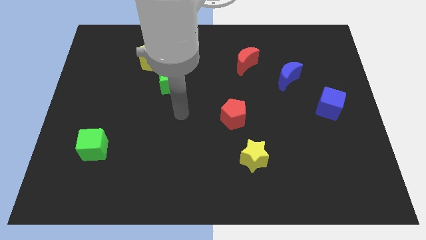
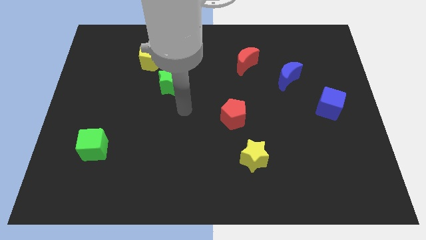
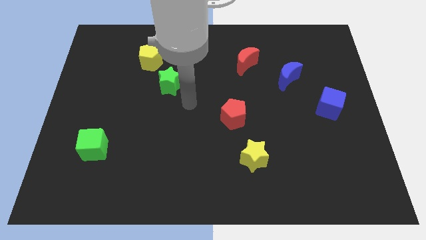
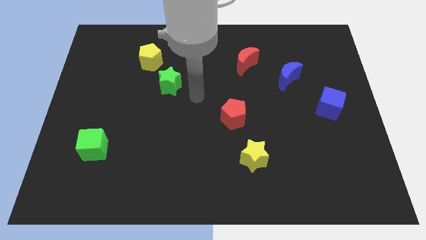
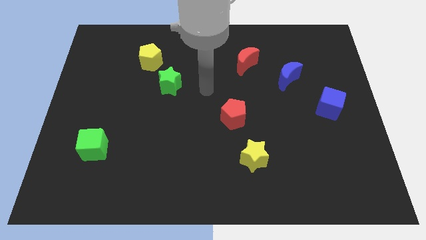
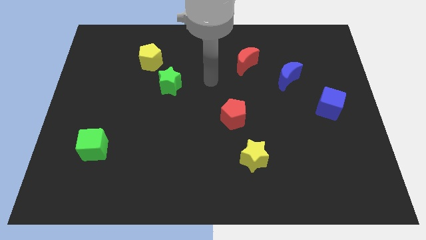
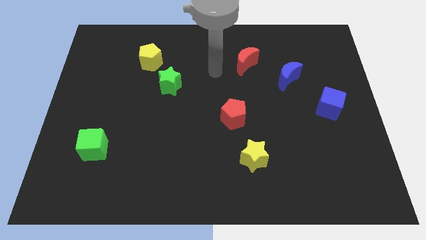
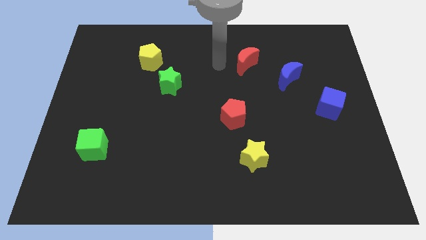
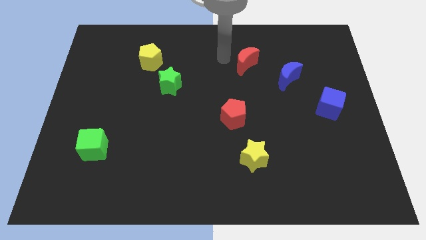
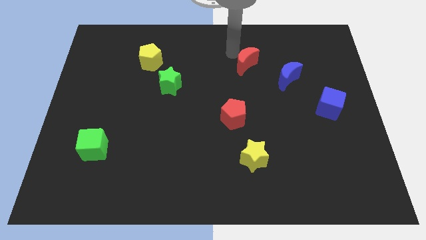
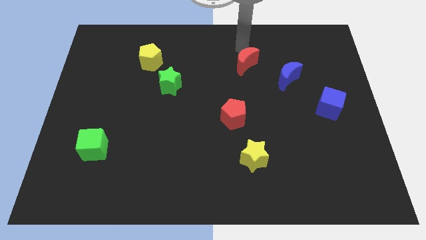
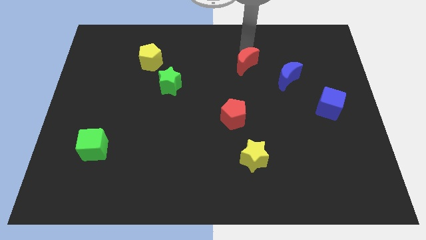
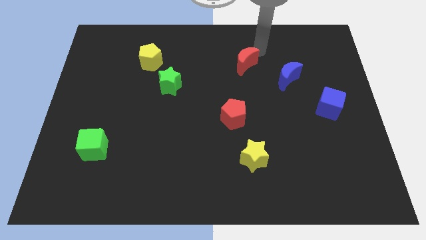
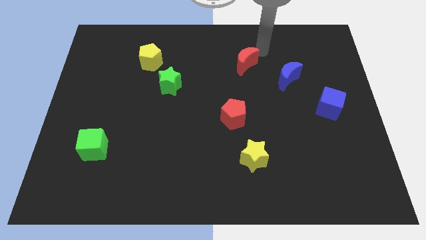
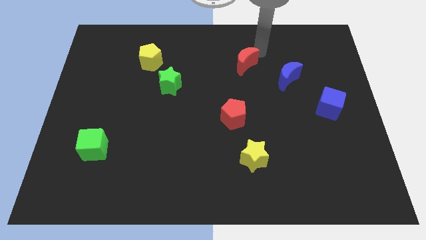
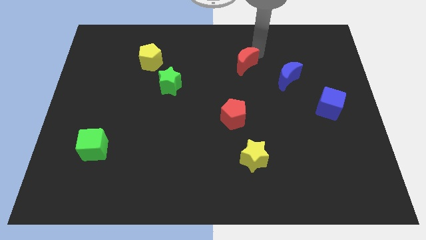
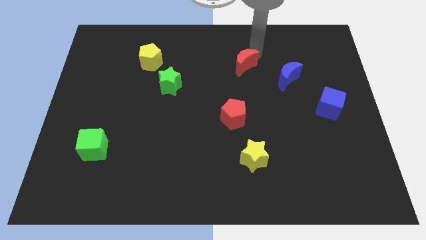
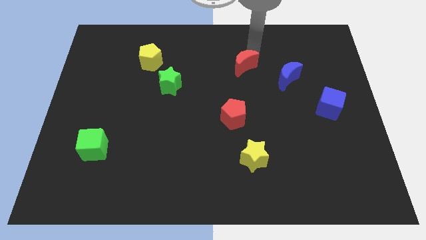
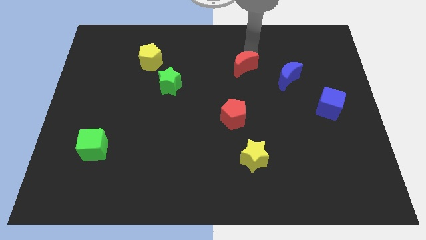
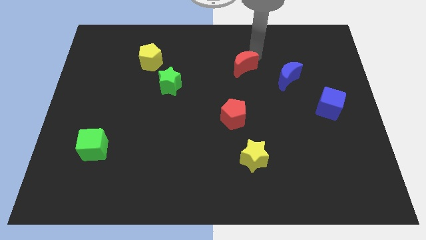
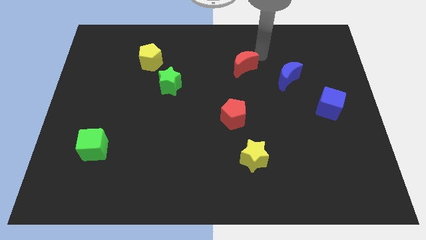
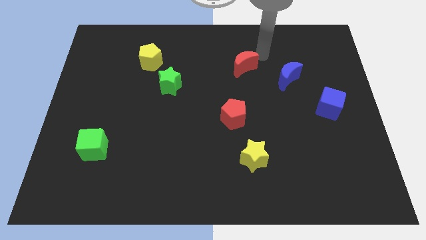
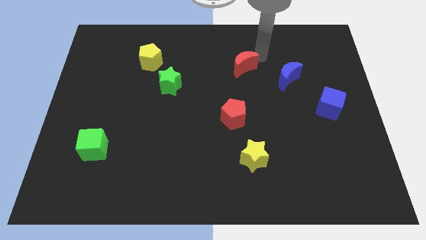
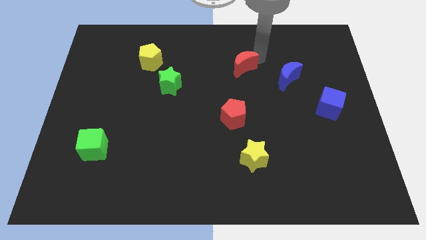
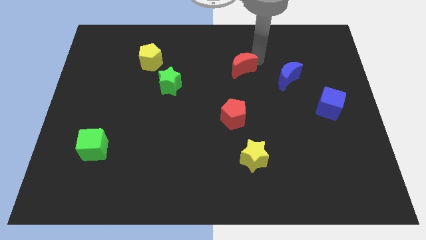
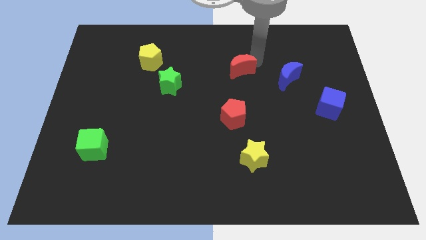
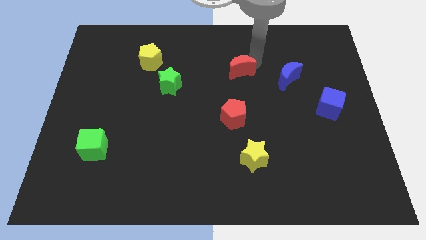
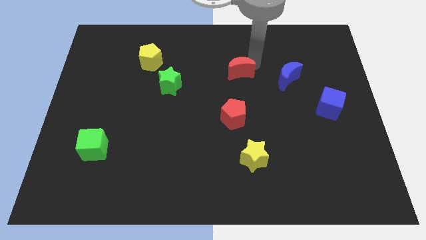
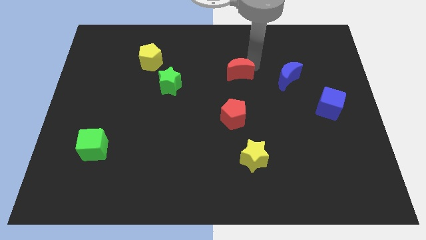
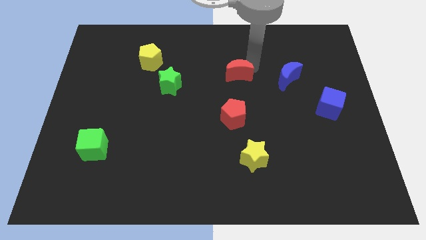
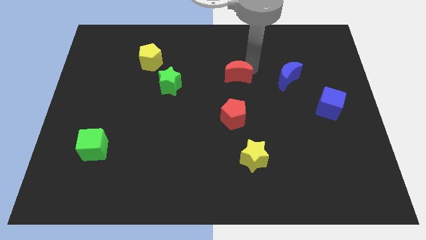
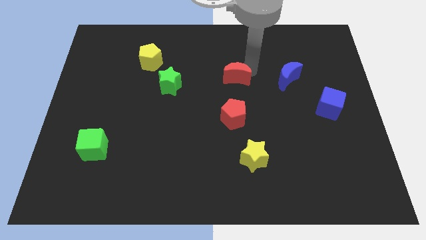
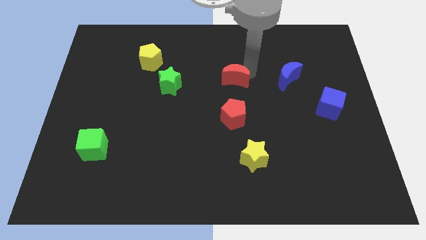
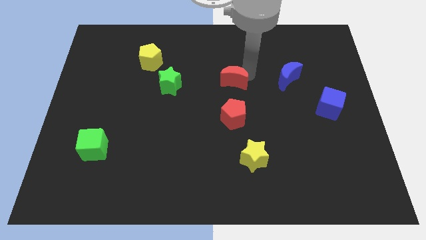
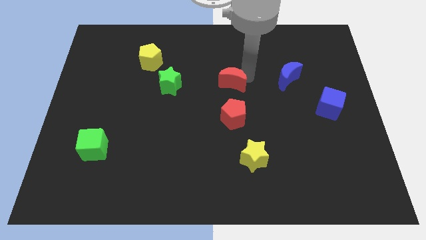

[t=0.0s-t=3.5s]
slightly slide the red moon downwards and to the left diagonally

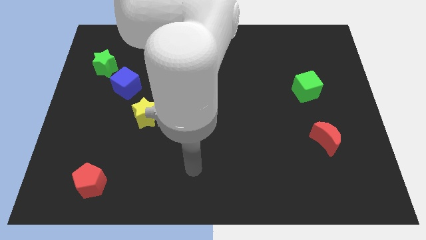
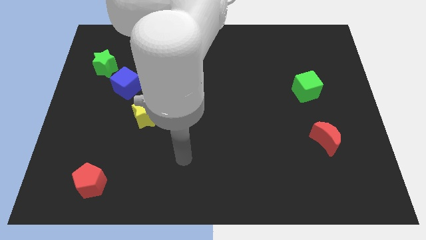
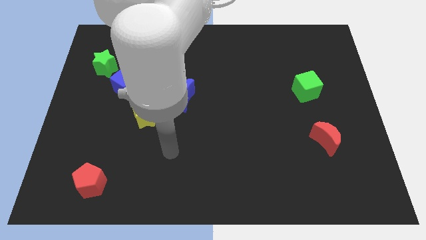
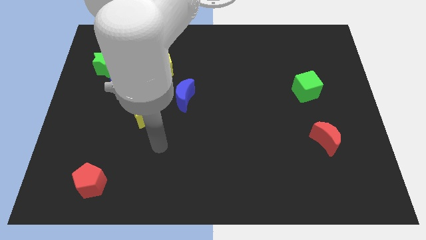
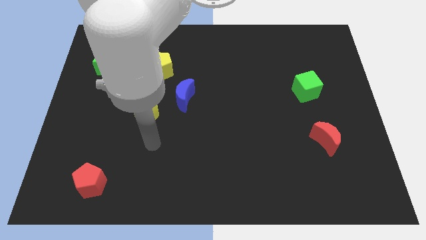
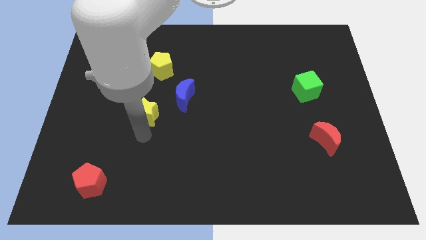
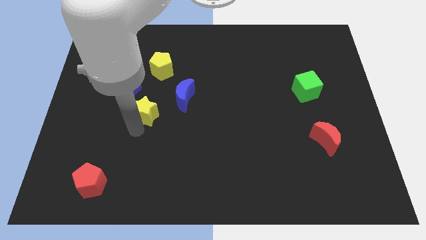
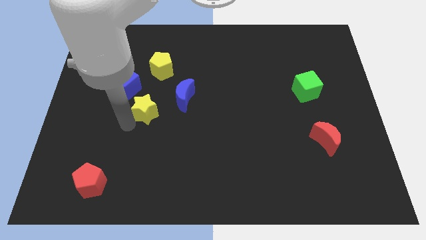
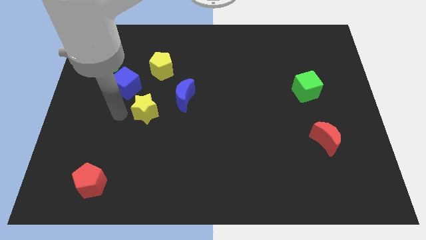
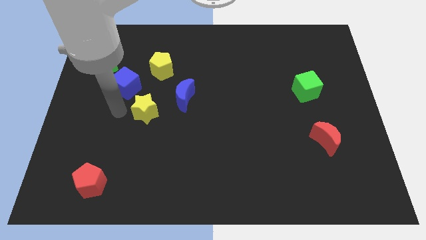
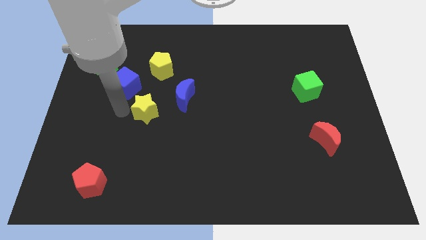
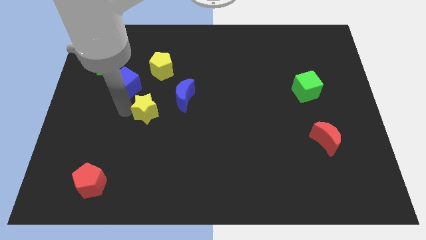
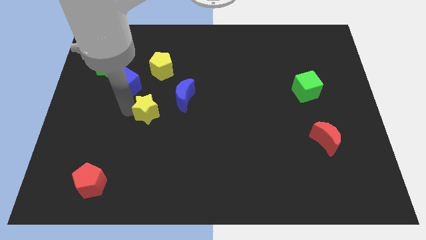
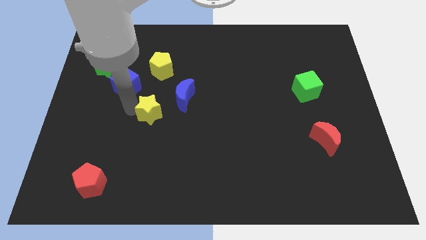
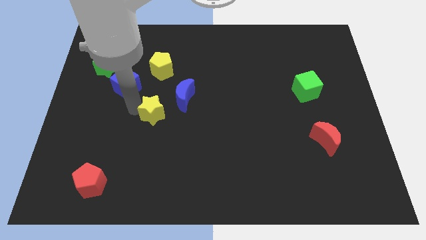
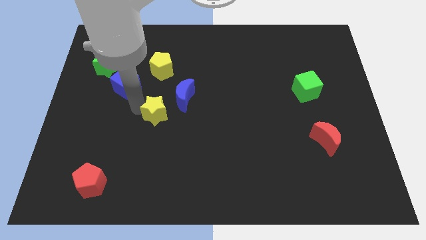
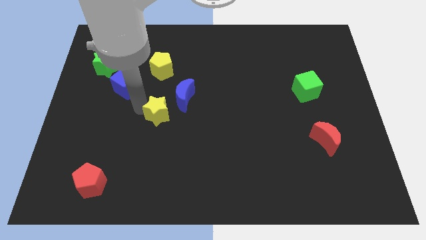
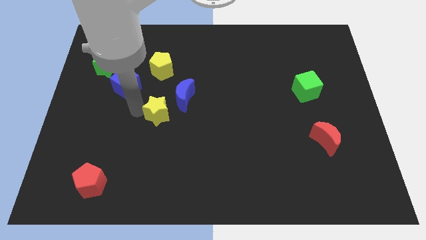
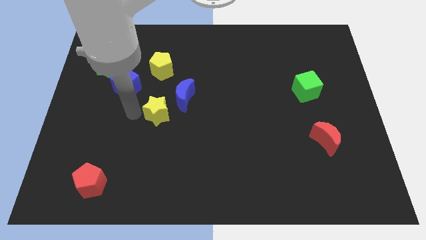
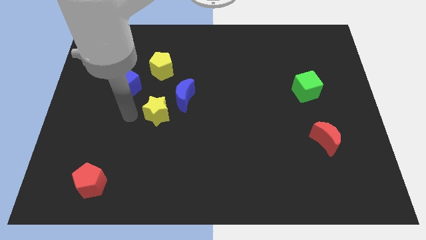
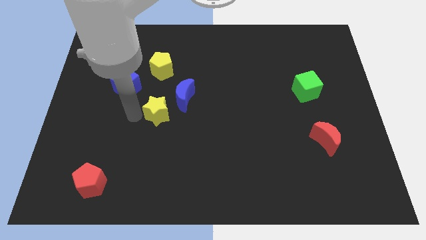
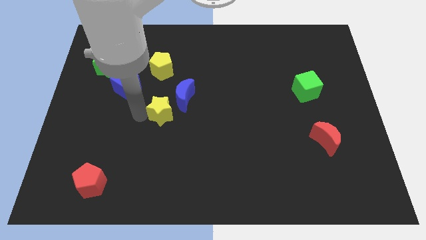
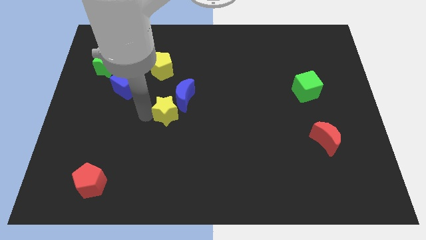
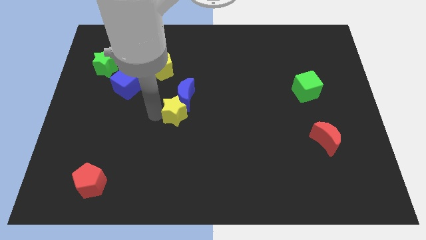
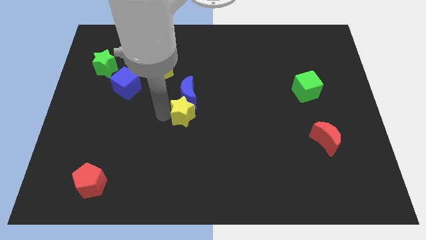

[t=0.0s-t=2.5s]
slide the yellow star to the right somewhat

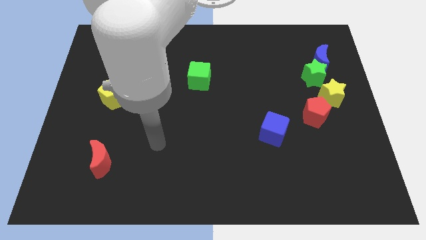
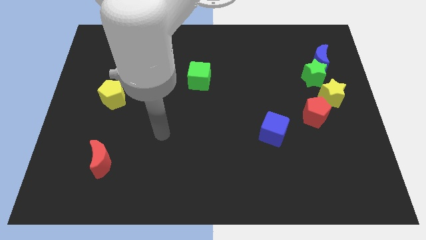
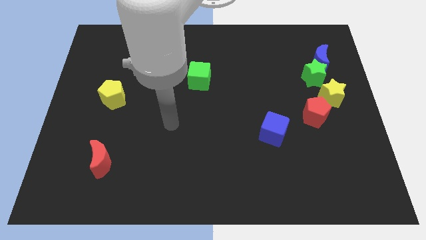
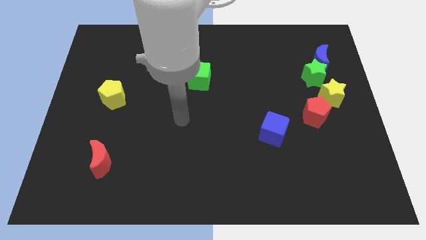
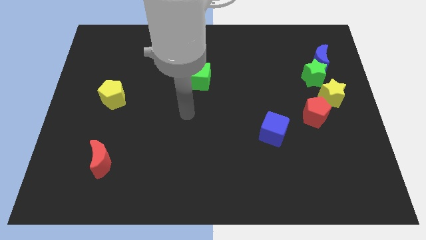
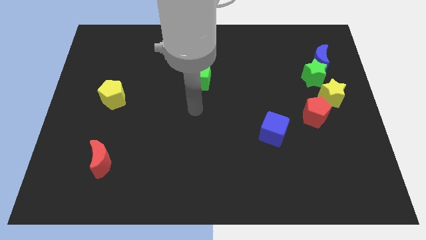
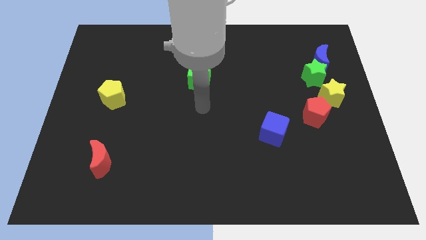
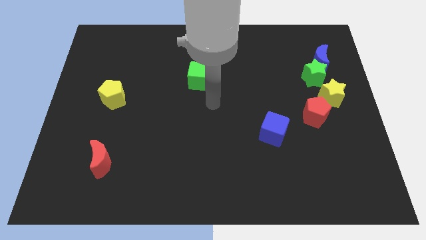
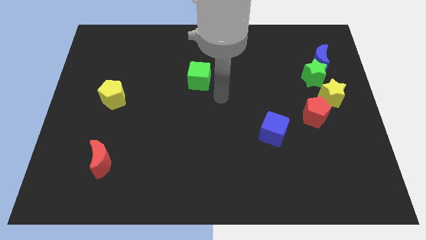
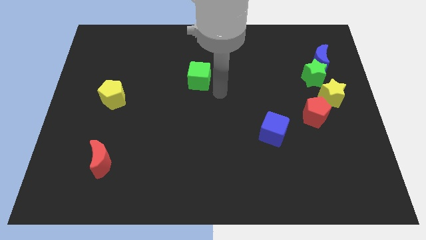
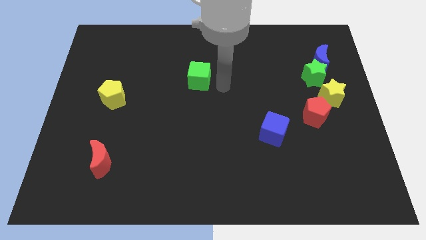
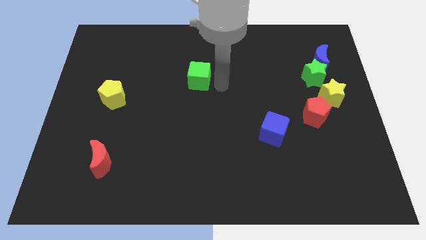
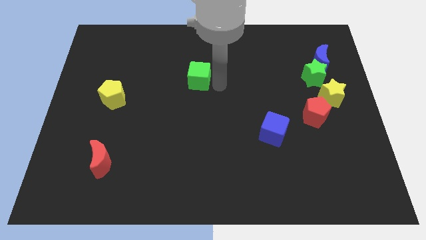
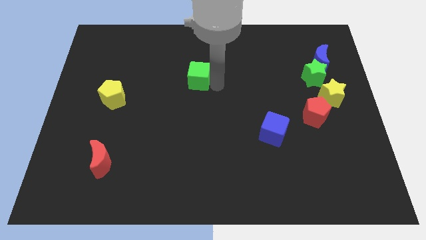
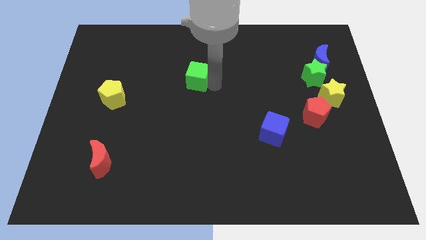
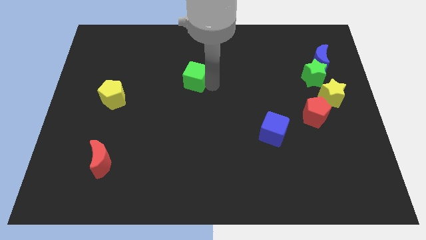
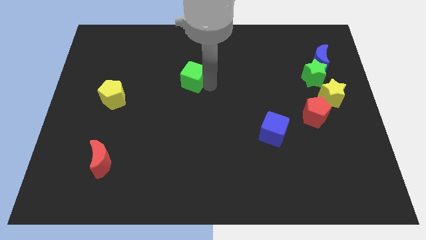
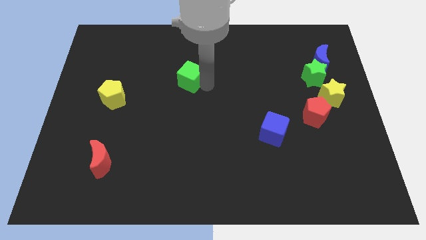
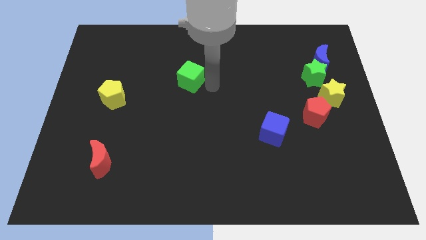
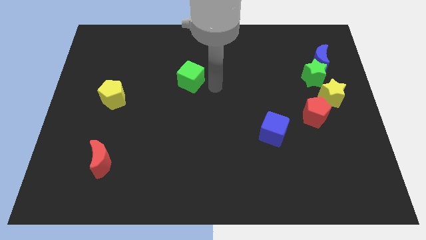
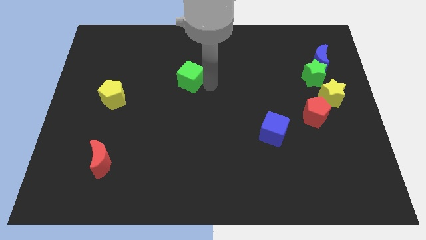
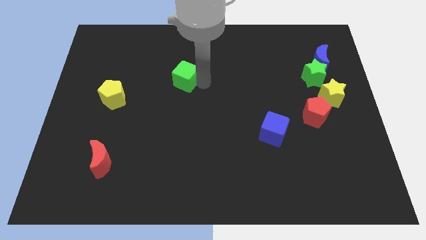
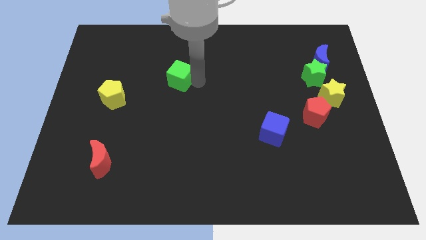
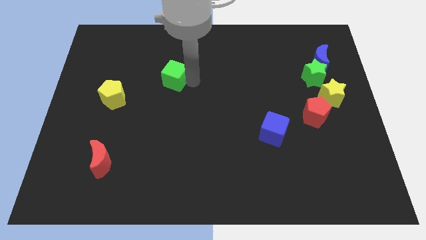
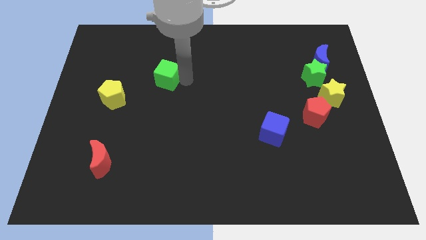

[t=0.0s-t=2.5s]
slide the green cube left somewhat
